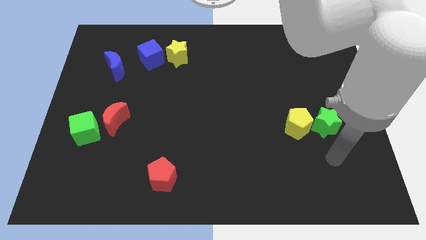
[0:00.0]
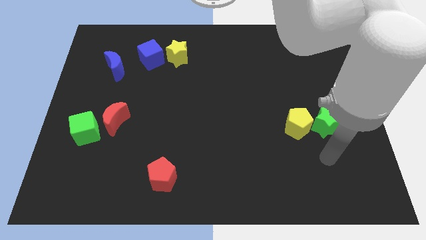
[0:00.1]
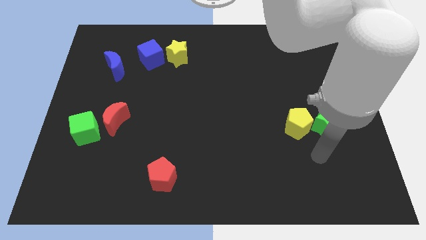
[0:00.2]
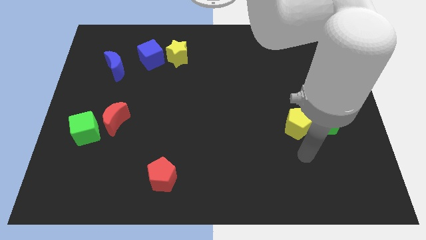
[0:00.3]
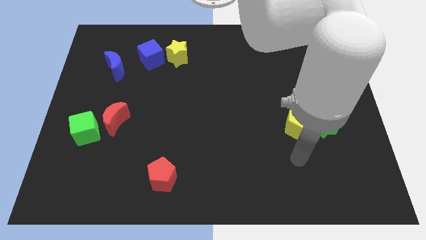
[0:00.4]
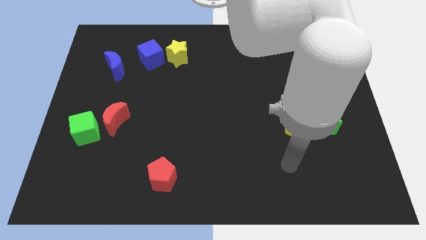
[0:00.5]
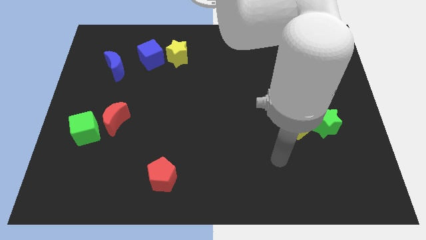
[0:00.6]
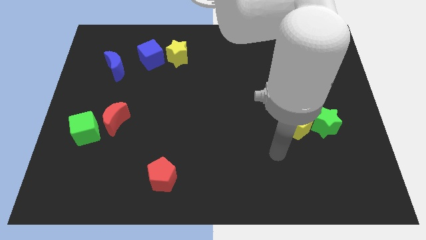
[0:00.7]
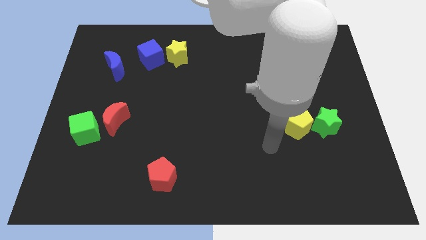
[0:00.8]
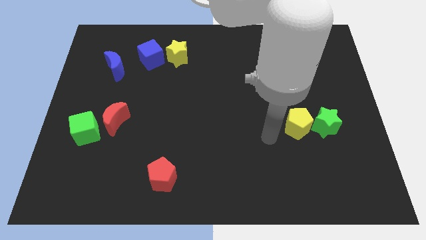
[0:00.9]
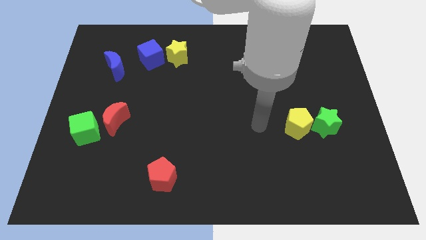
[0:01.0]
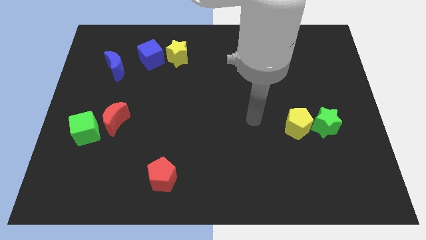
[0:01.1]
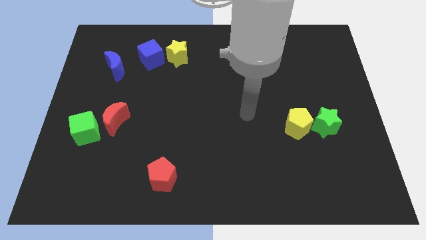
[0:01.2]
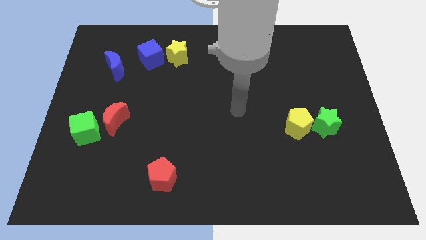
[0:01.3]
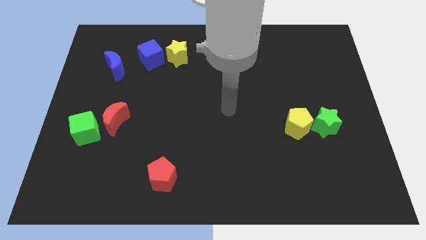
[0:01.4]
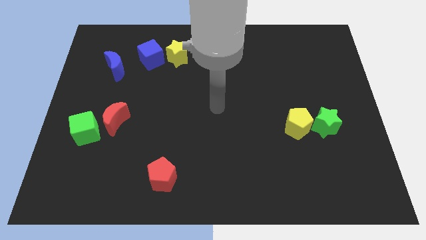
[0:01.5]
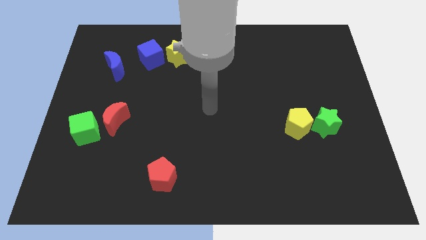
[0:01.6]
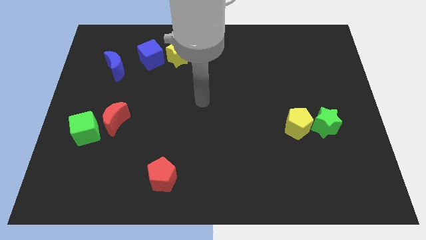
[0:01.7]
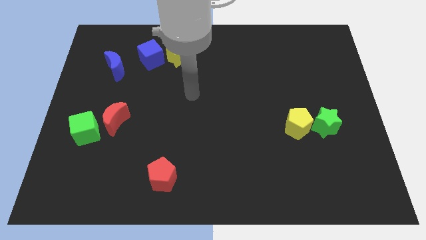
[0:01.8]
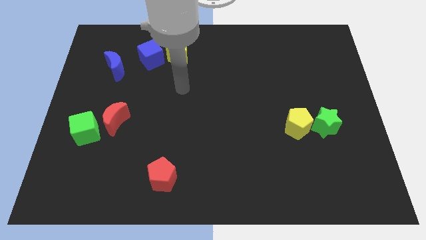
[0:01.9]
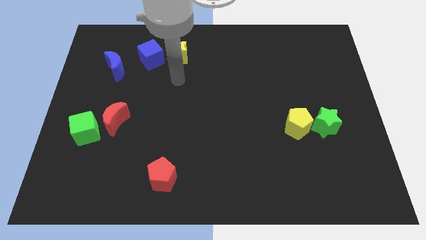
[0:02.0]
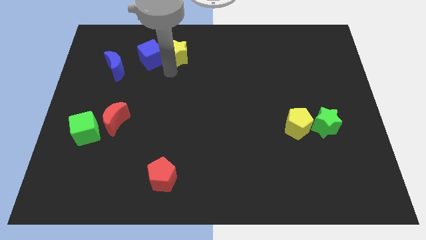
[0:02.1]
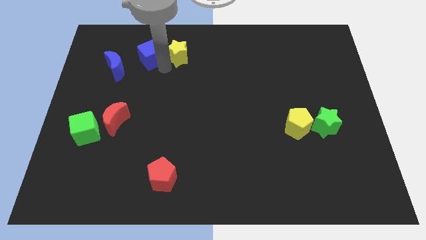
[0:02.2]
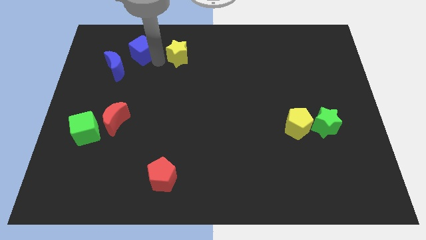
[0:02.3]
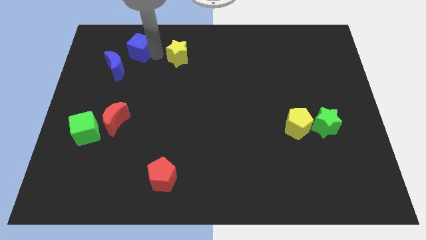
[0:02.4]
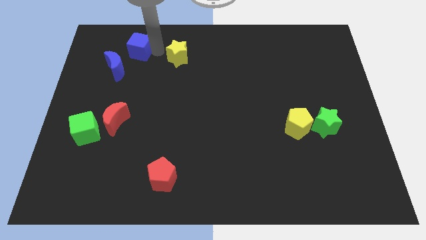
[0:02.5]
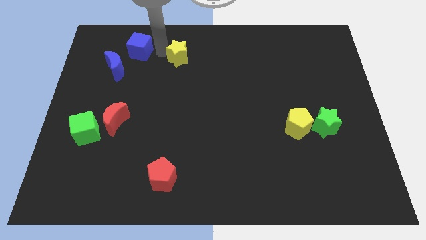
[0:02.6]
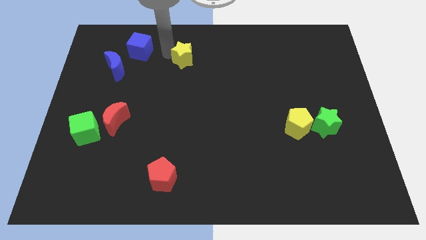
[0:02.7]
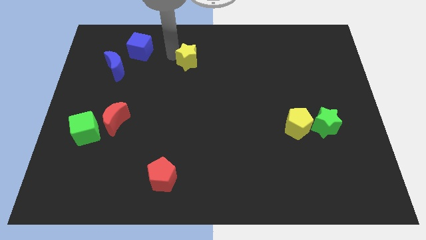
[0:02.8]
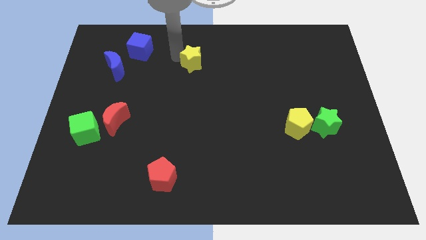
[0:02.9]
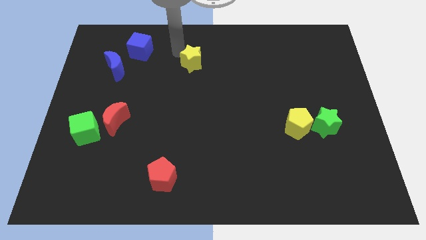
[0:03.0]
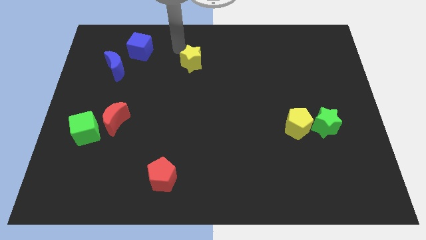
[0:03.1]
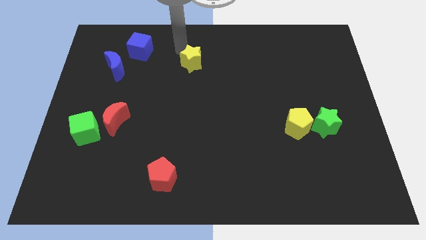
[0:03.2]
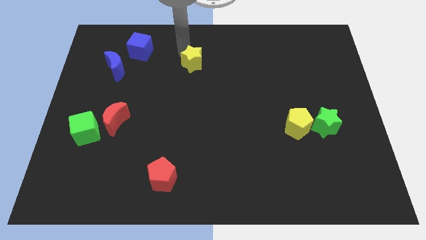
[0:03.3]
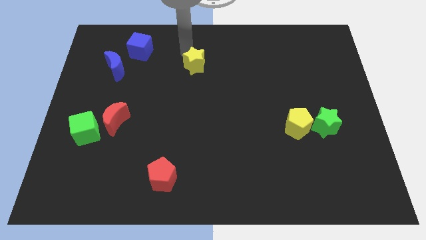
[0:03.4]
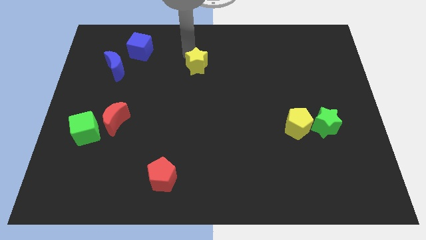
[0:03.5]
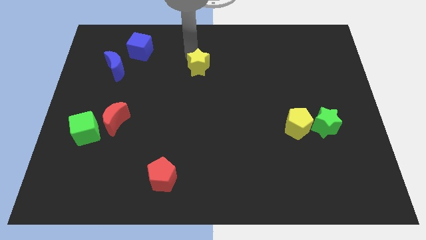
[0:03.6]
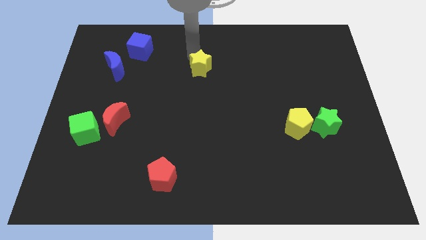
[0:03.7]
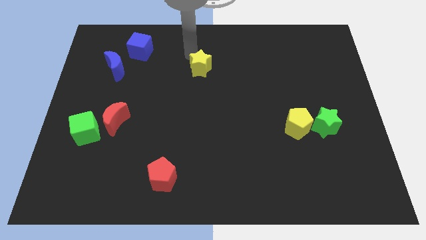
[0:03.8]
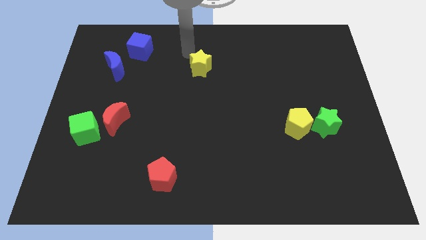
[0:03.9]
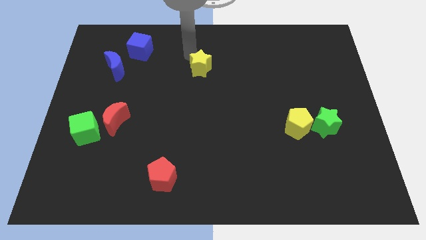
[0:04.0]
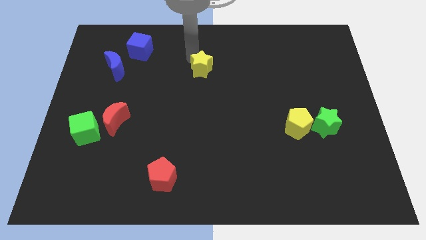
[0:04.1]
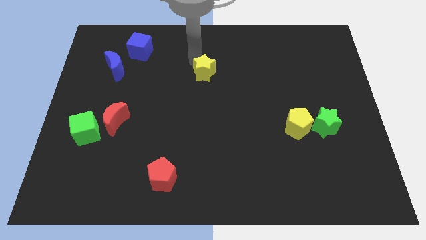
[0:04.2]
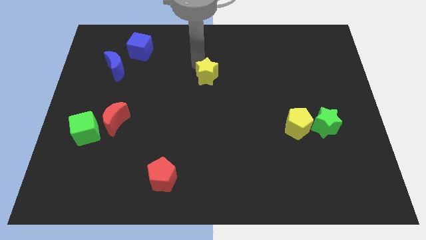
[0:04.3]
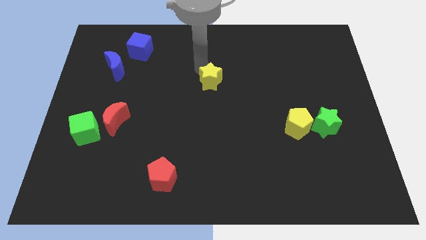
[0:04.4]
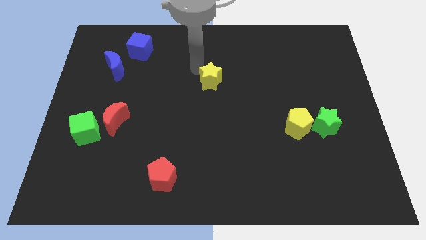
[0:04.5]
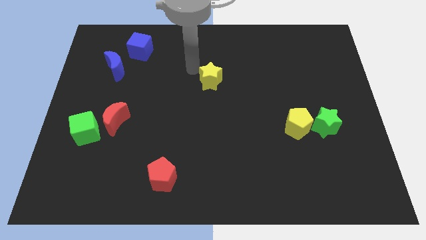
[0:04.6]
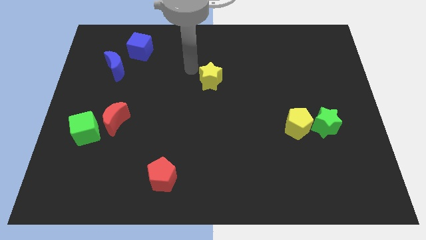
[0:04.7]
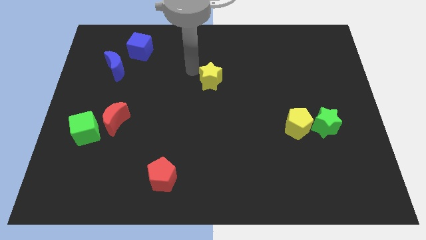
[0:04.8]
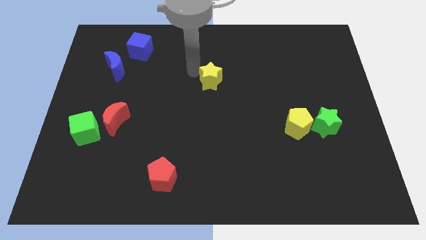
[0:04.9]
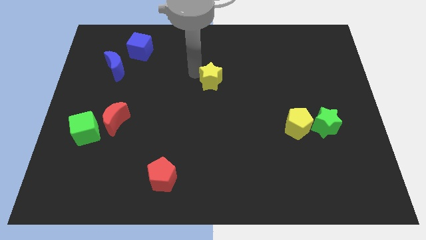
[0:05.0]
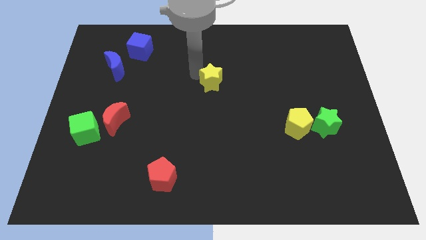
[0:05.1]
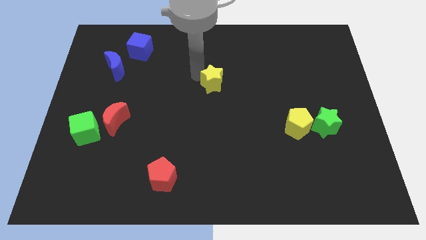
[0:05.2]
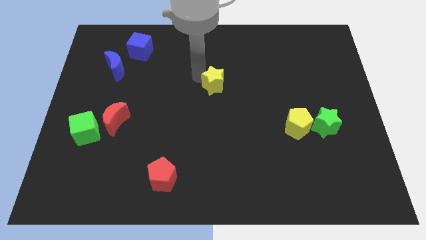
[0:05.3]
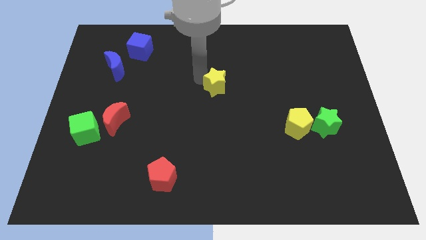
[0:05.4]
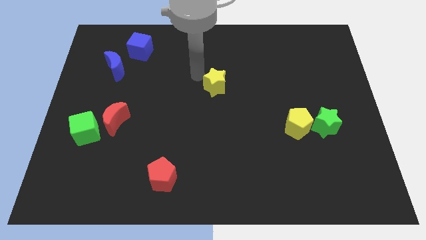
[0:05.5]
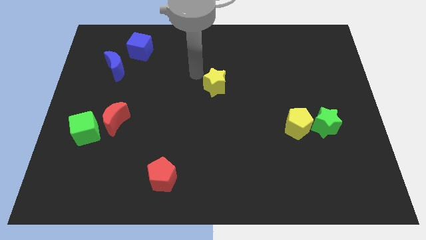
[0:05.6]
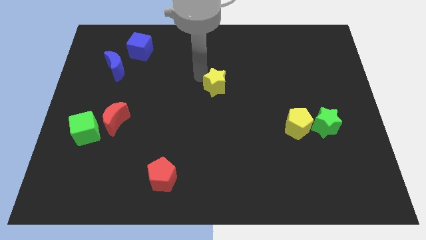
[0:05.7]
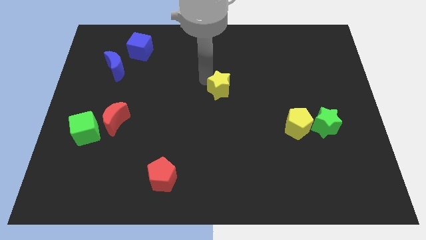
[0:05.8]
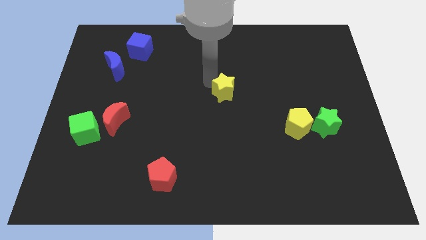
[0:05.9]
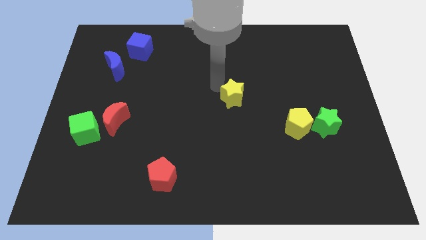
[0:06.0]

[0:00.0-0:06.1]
push the yellow star downwards and right

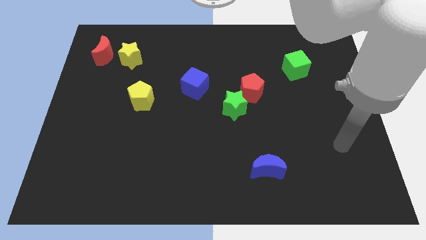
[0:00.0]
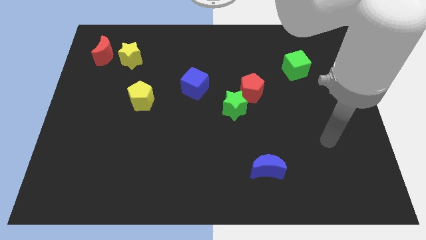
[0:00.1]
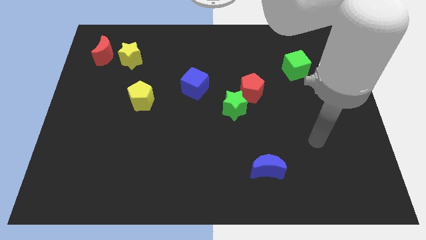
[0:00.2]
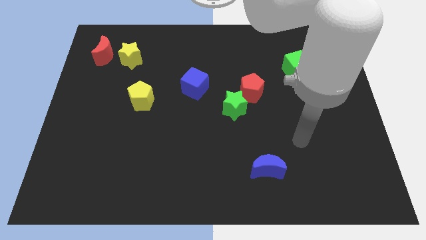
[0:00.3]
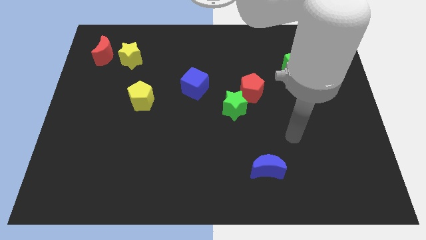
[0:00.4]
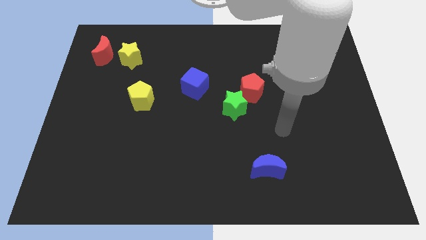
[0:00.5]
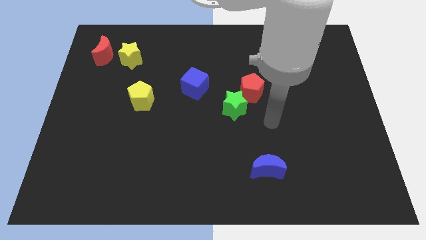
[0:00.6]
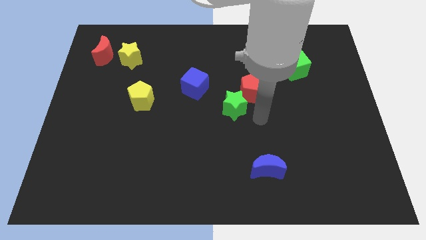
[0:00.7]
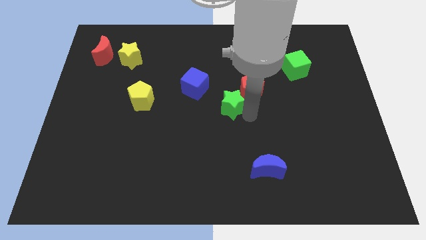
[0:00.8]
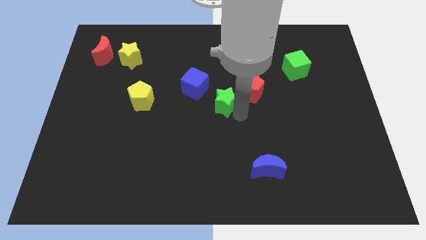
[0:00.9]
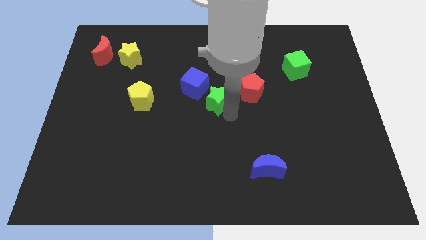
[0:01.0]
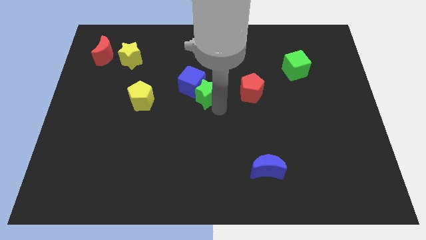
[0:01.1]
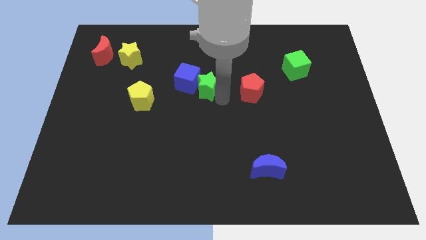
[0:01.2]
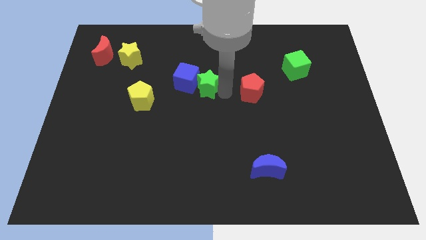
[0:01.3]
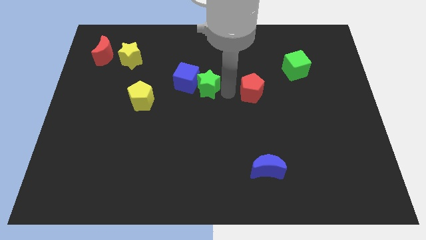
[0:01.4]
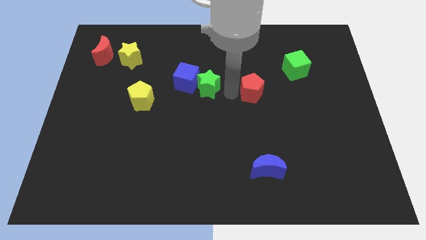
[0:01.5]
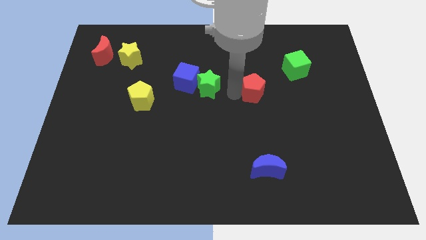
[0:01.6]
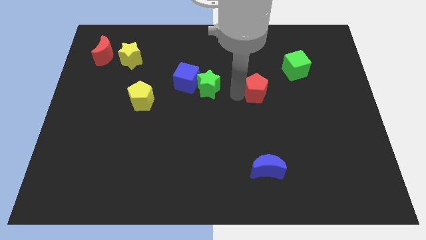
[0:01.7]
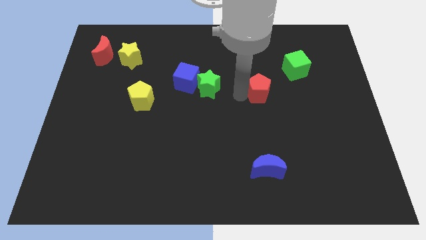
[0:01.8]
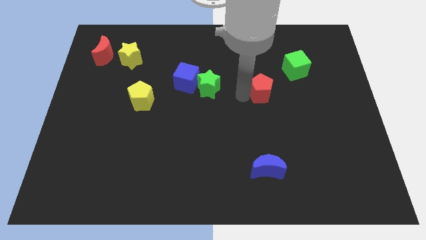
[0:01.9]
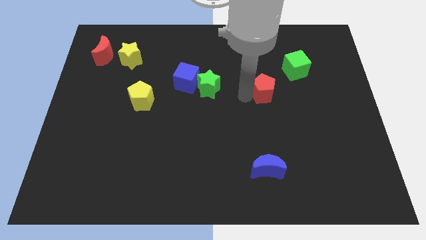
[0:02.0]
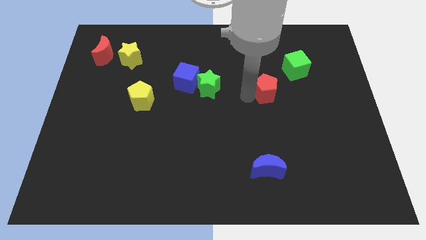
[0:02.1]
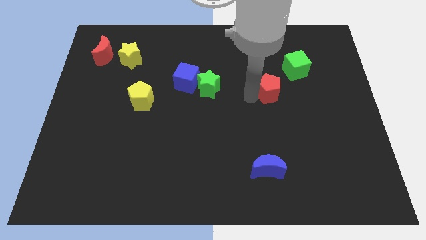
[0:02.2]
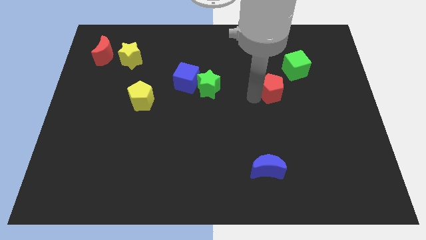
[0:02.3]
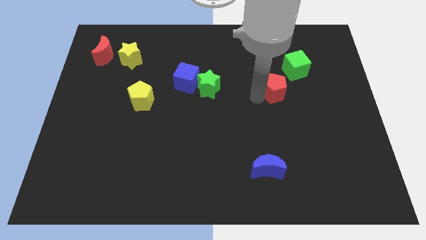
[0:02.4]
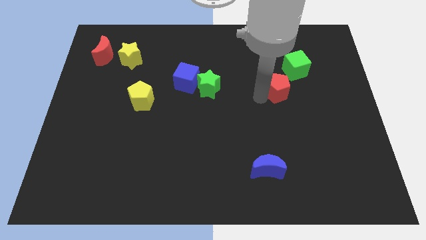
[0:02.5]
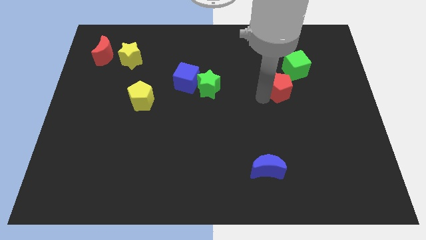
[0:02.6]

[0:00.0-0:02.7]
move the red pentagon right somewhat
